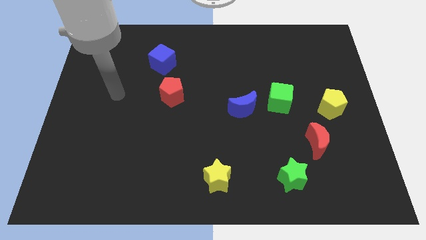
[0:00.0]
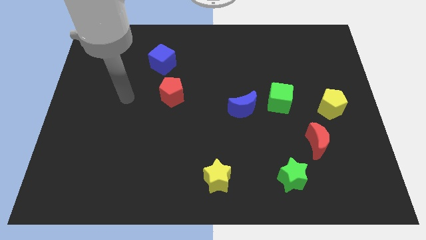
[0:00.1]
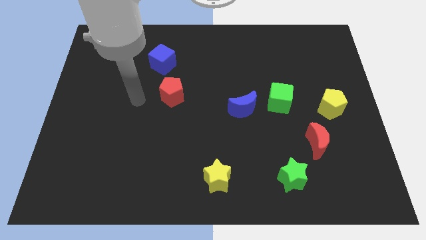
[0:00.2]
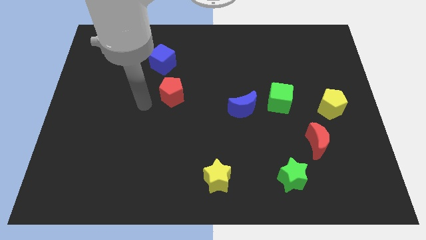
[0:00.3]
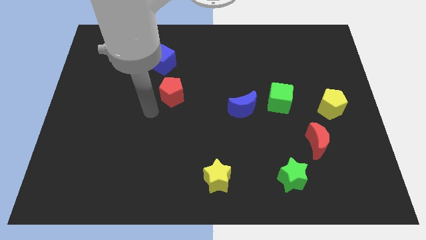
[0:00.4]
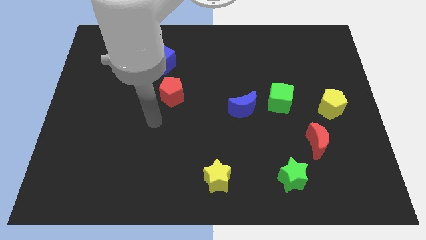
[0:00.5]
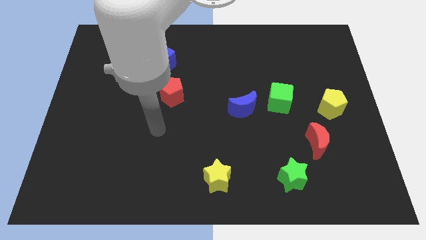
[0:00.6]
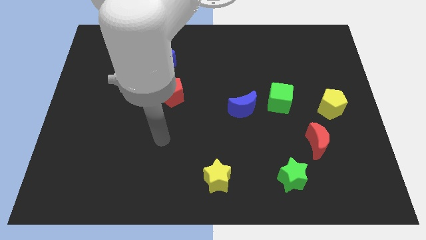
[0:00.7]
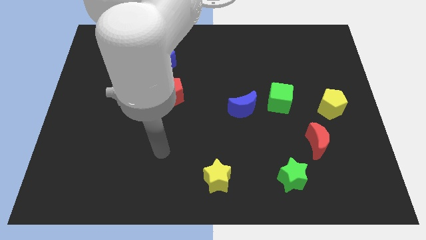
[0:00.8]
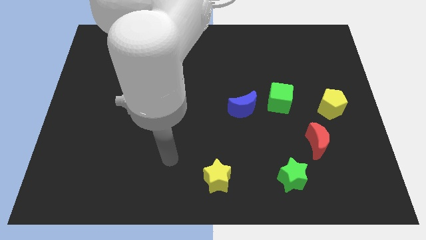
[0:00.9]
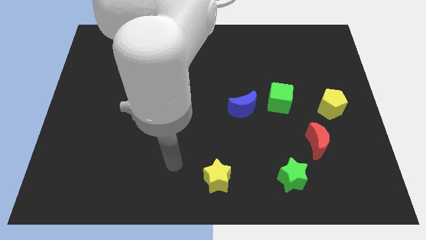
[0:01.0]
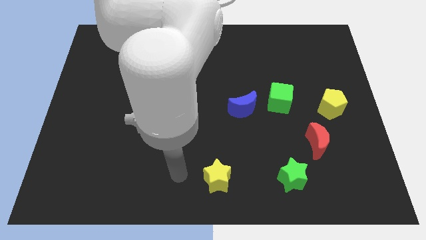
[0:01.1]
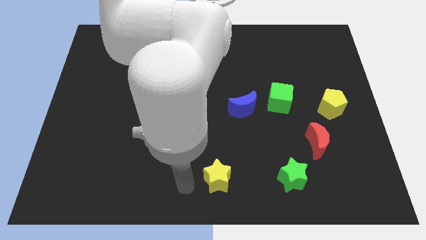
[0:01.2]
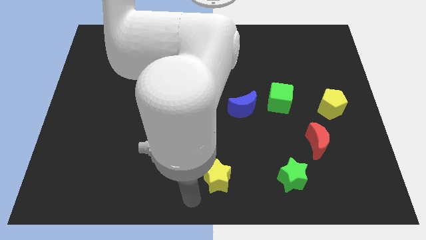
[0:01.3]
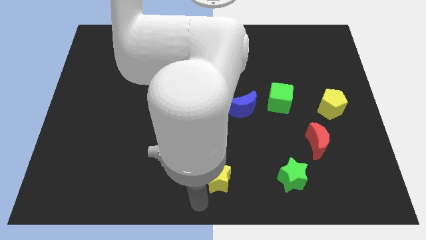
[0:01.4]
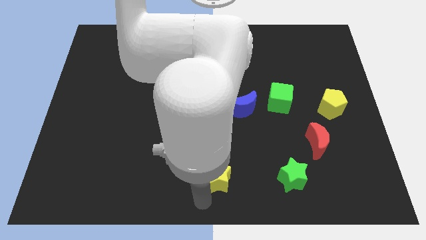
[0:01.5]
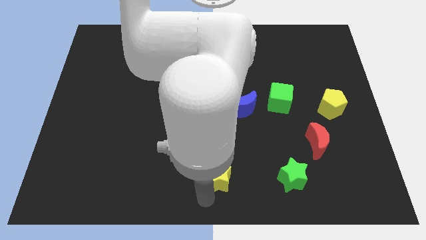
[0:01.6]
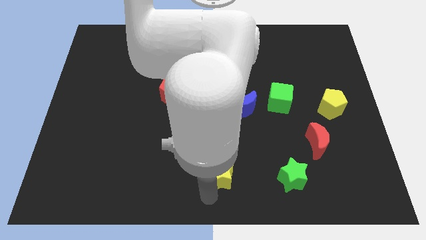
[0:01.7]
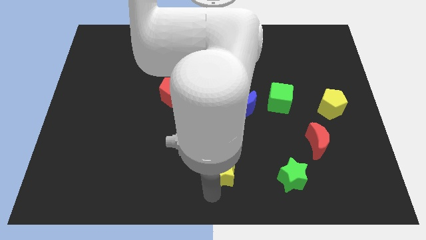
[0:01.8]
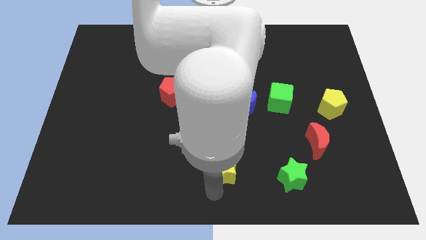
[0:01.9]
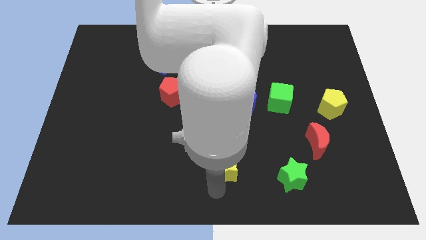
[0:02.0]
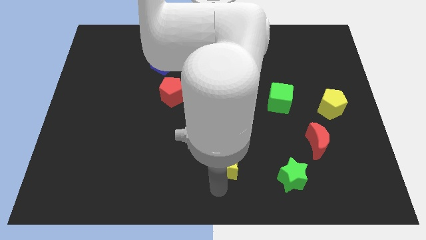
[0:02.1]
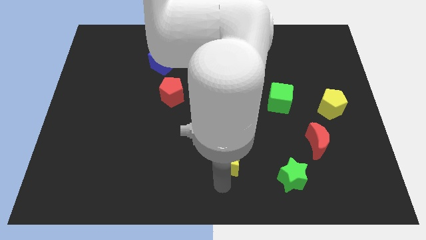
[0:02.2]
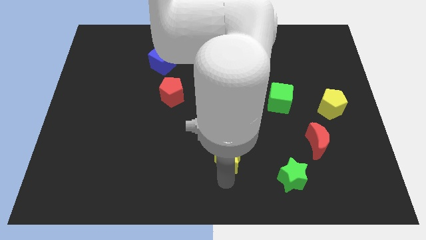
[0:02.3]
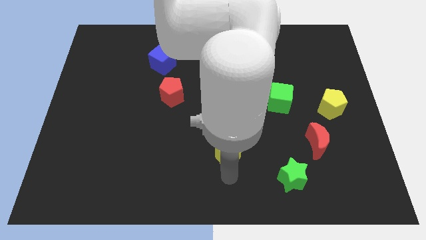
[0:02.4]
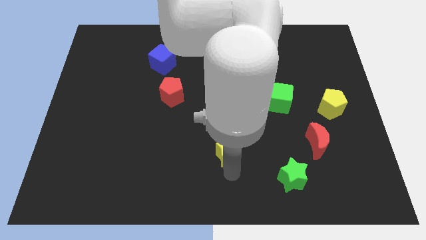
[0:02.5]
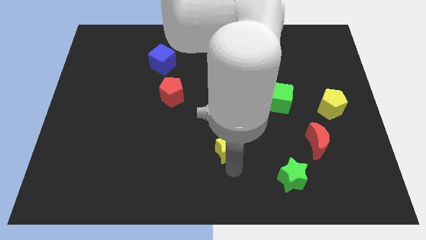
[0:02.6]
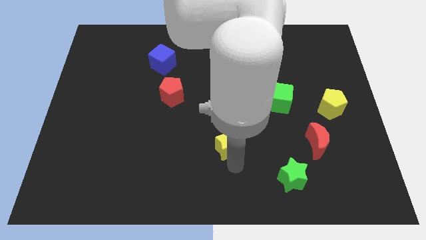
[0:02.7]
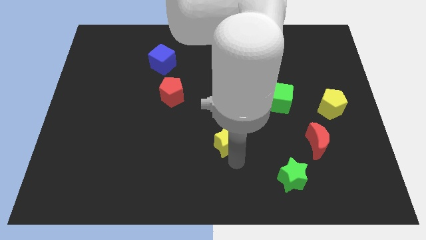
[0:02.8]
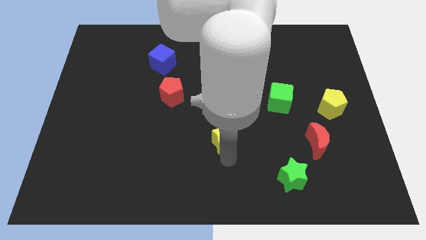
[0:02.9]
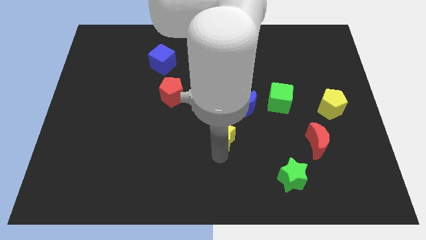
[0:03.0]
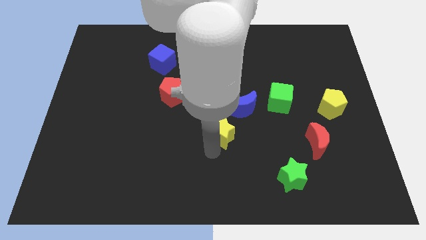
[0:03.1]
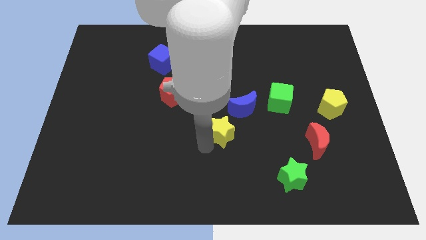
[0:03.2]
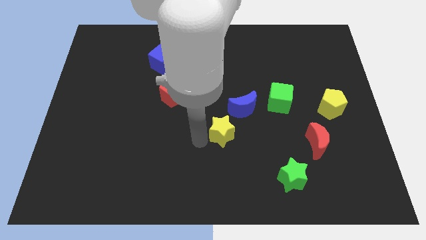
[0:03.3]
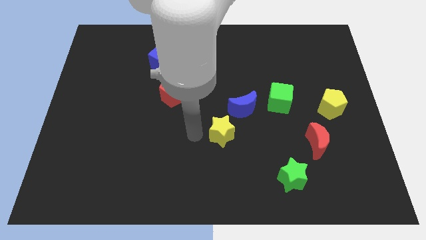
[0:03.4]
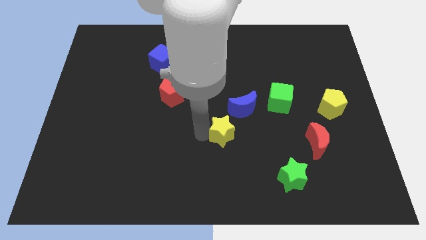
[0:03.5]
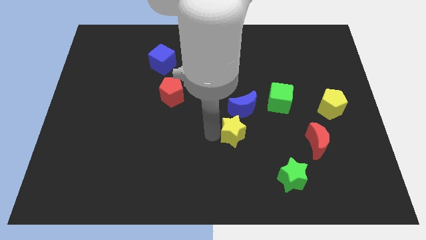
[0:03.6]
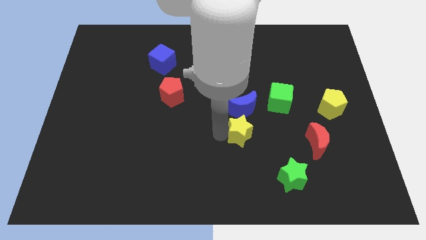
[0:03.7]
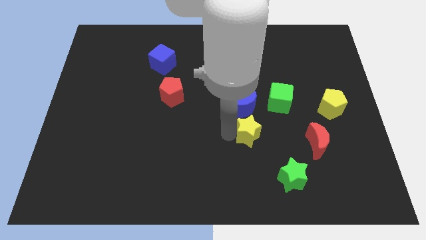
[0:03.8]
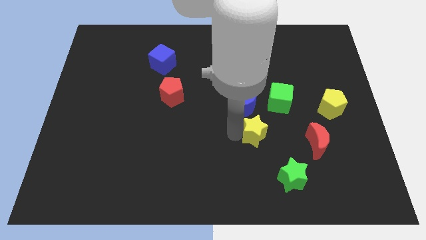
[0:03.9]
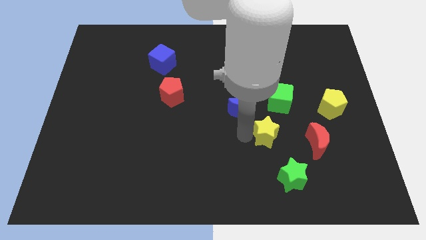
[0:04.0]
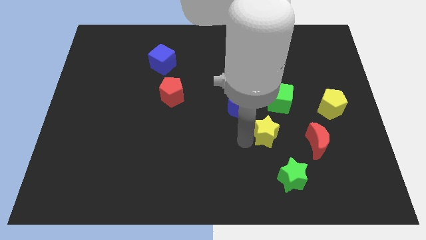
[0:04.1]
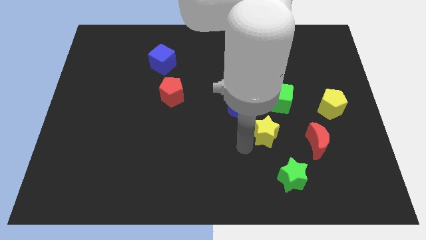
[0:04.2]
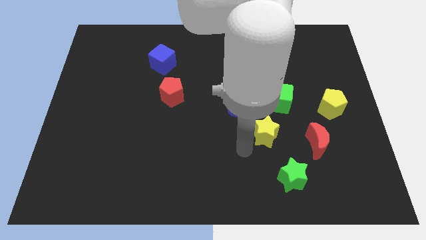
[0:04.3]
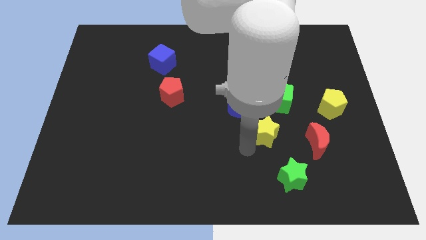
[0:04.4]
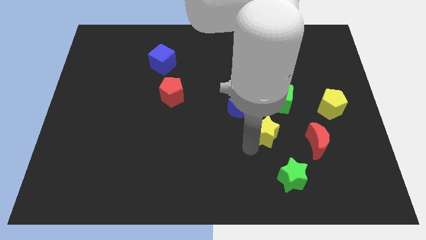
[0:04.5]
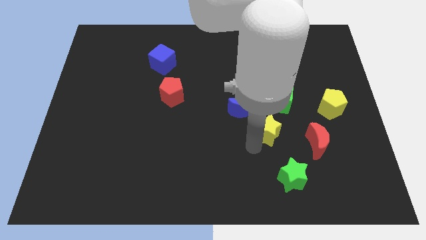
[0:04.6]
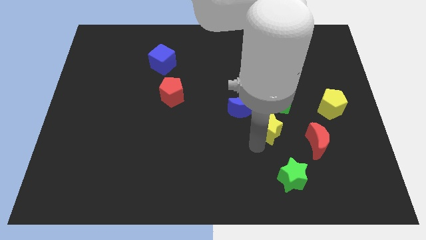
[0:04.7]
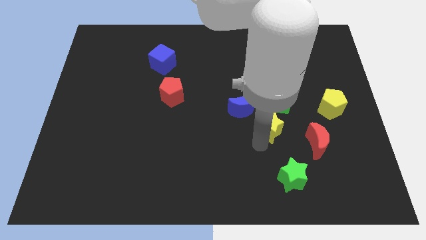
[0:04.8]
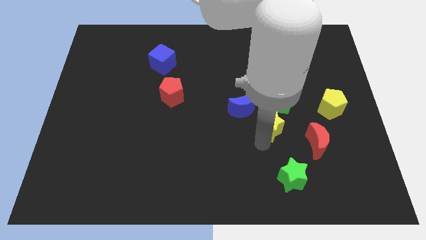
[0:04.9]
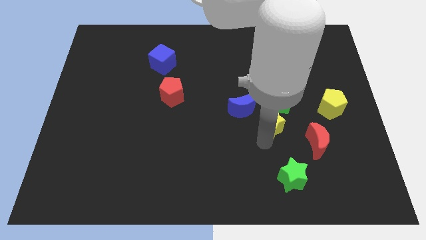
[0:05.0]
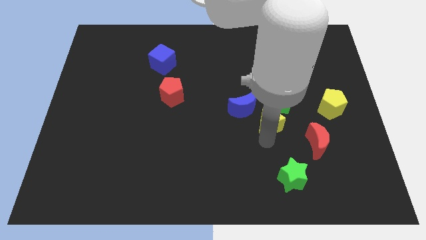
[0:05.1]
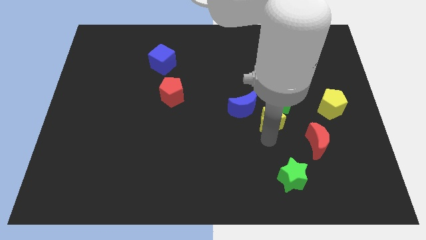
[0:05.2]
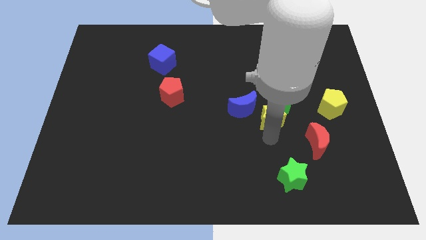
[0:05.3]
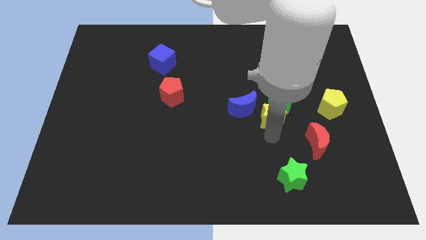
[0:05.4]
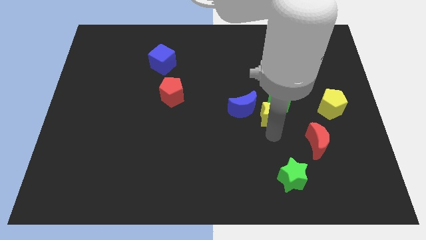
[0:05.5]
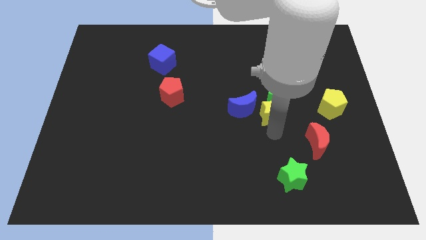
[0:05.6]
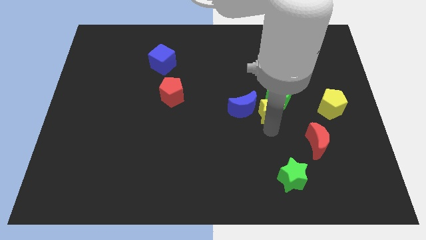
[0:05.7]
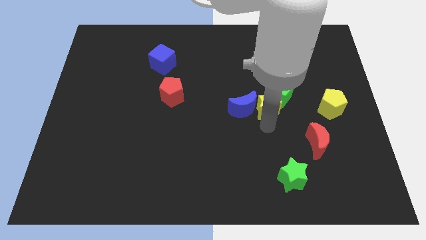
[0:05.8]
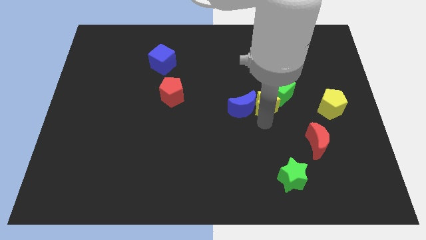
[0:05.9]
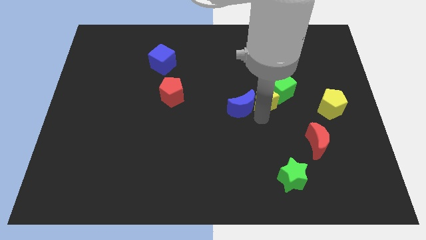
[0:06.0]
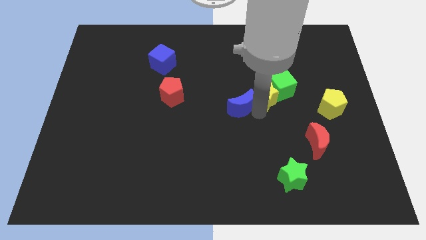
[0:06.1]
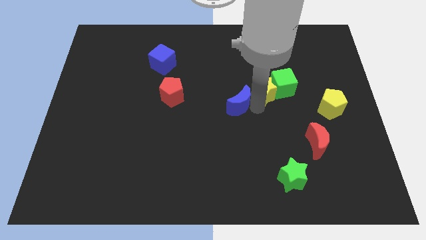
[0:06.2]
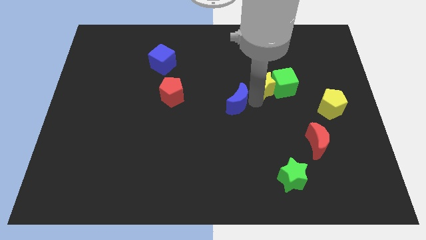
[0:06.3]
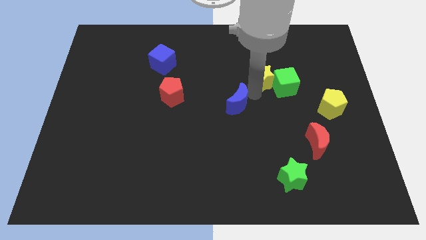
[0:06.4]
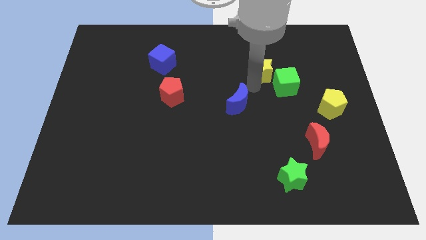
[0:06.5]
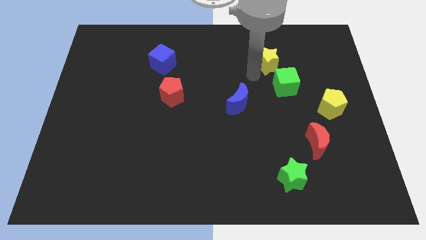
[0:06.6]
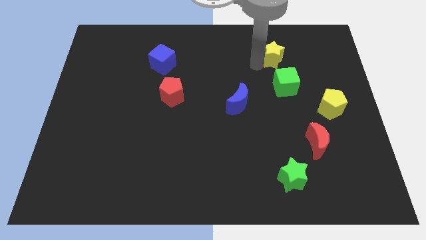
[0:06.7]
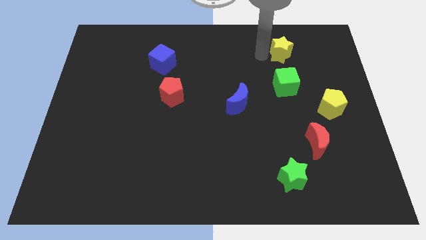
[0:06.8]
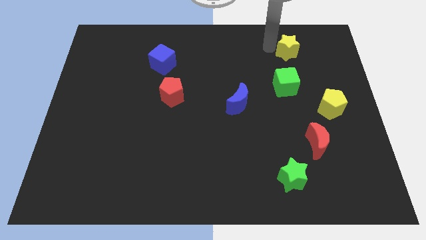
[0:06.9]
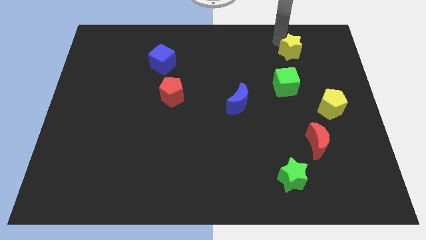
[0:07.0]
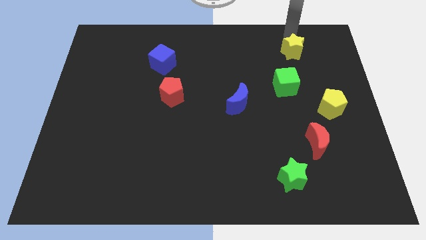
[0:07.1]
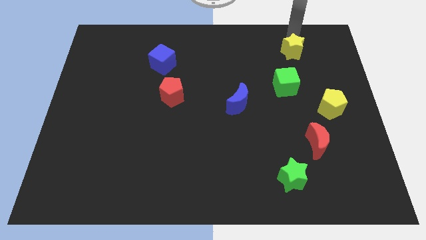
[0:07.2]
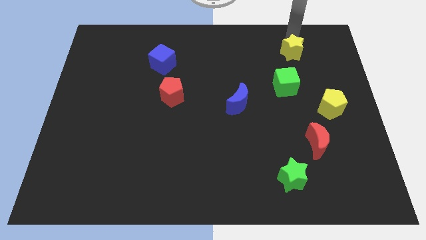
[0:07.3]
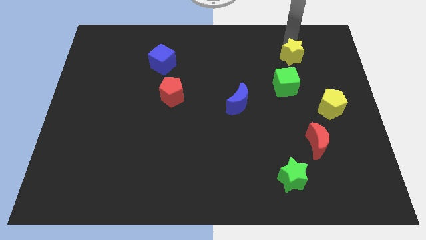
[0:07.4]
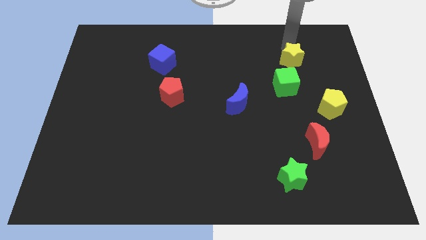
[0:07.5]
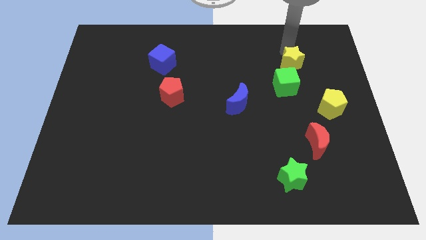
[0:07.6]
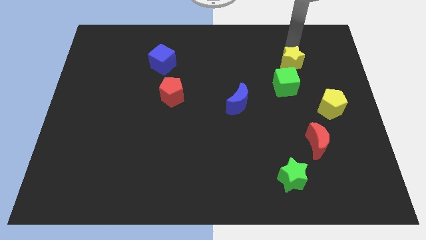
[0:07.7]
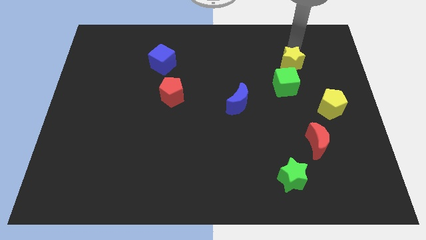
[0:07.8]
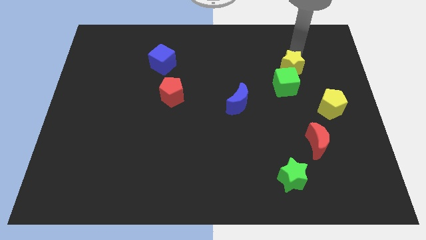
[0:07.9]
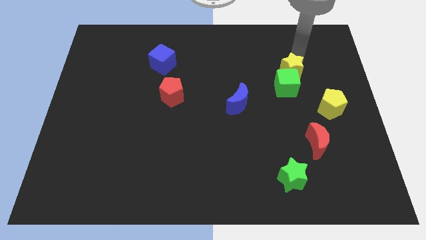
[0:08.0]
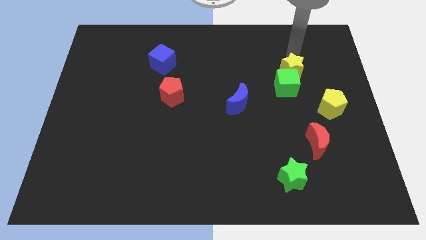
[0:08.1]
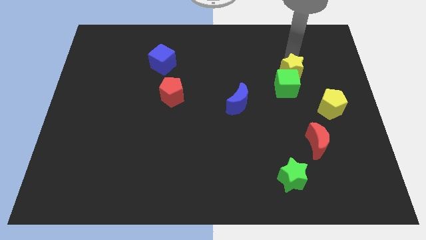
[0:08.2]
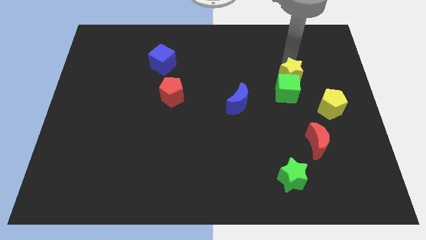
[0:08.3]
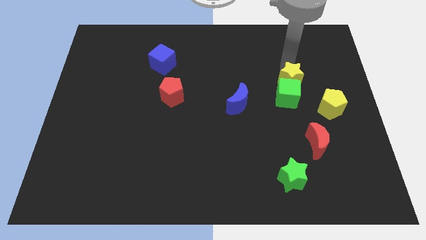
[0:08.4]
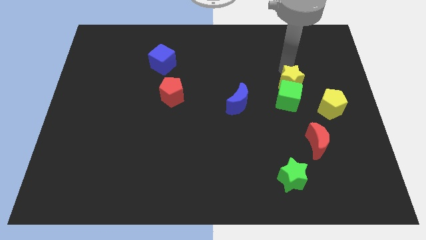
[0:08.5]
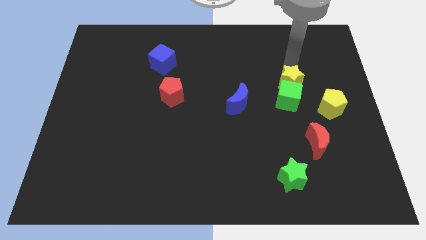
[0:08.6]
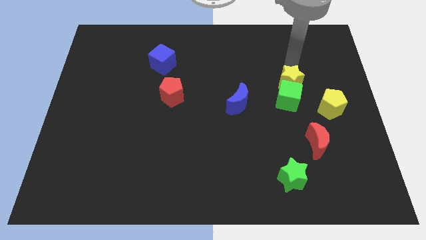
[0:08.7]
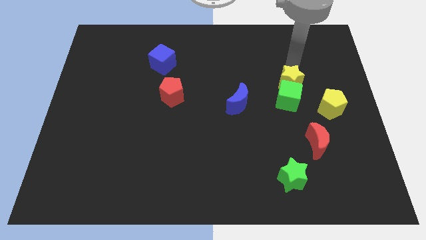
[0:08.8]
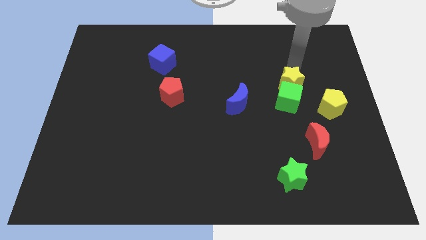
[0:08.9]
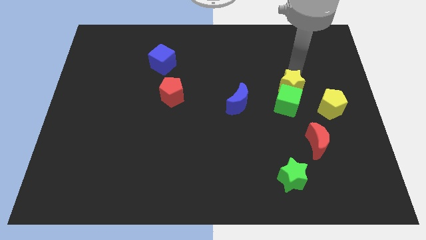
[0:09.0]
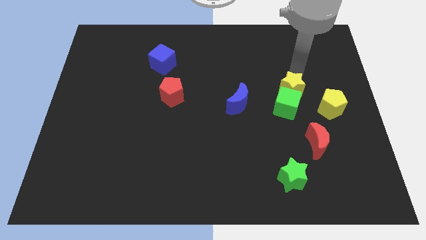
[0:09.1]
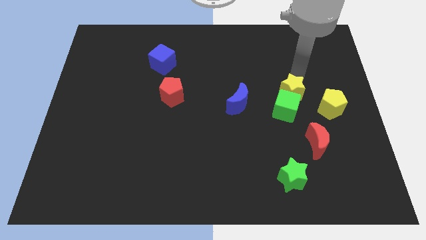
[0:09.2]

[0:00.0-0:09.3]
push the yellow star to the top side of the red moon
